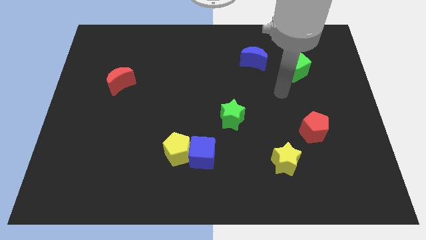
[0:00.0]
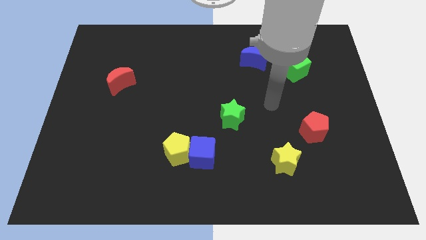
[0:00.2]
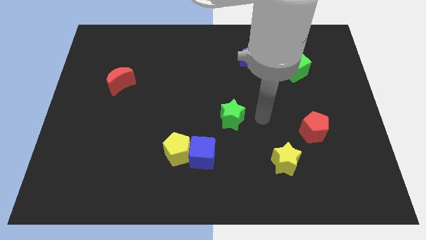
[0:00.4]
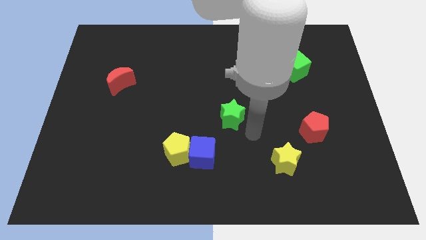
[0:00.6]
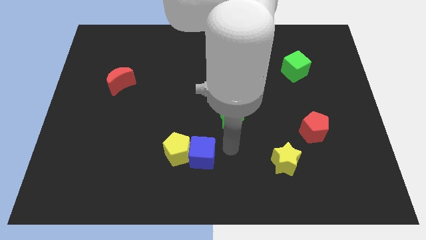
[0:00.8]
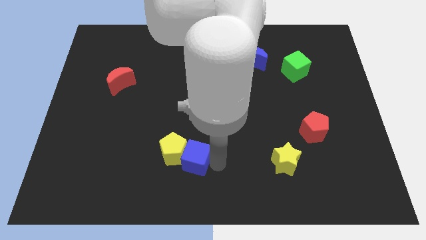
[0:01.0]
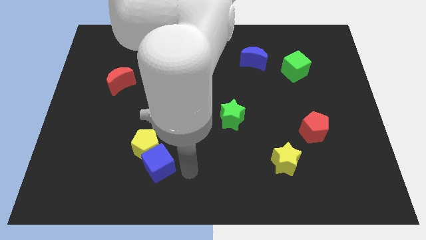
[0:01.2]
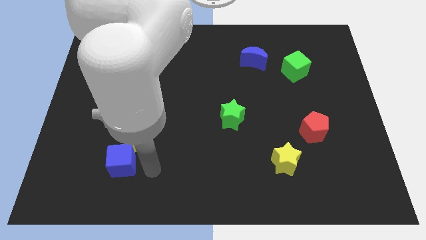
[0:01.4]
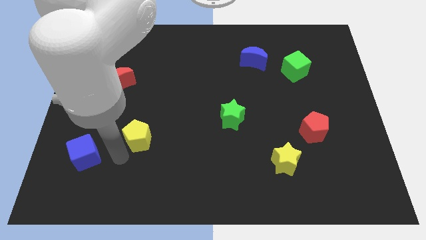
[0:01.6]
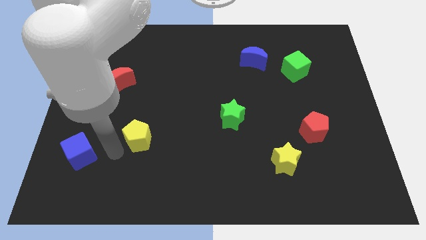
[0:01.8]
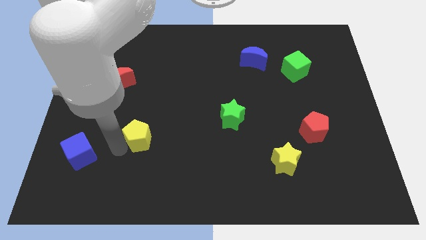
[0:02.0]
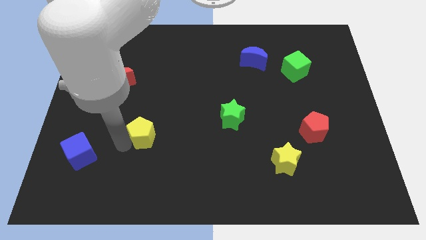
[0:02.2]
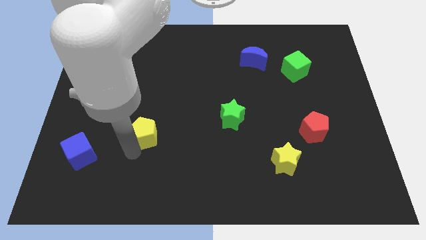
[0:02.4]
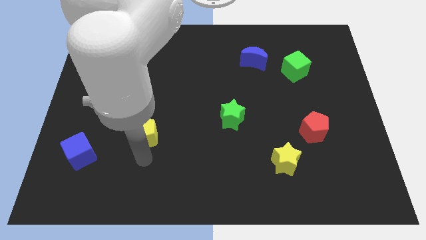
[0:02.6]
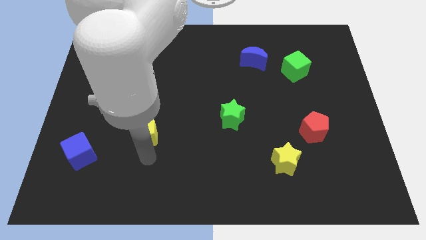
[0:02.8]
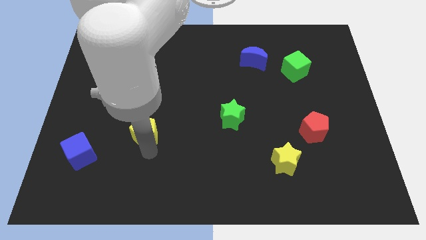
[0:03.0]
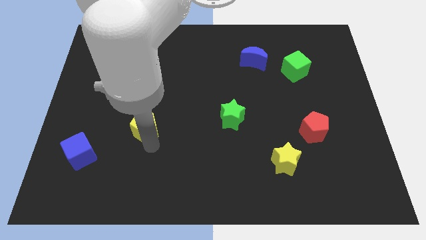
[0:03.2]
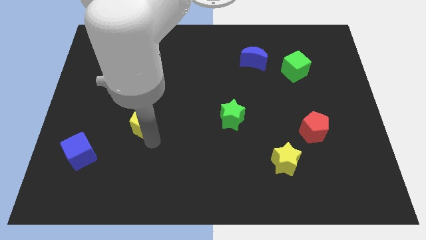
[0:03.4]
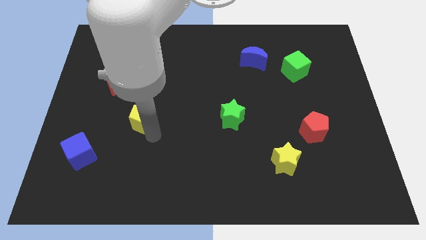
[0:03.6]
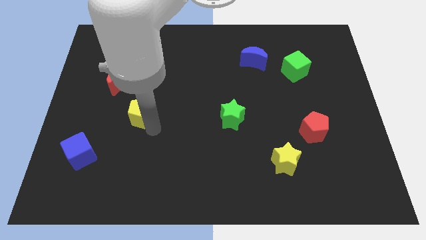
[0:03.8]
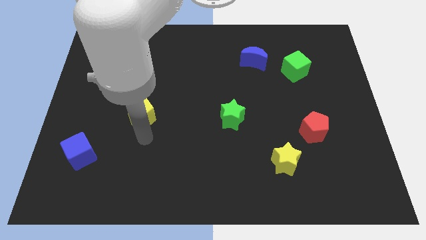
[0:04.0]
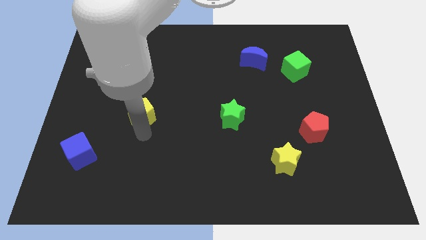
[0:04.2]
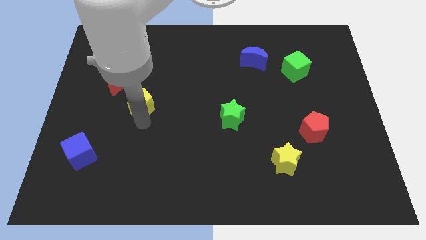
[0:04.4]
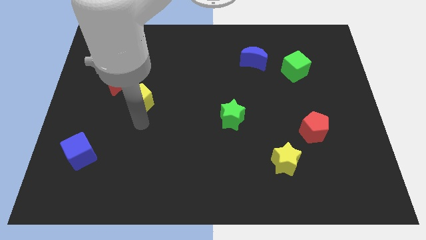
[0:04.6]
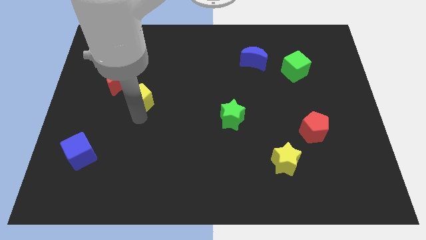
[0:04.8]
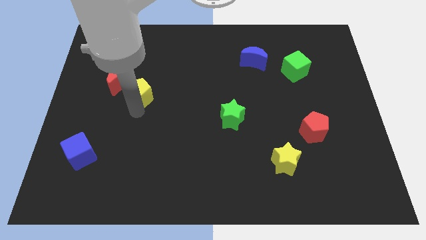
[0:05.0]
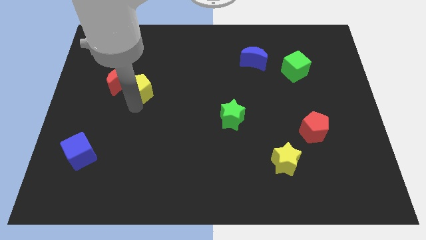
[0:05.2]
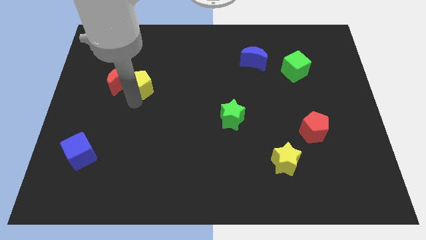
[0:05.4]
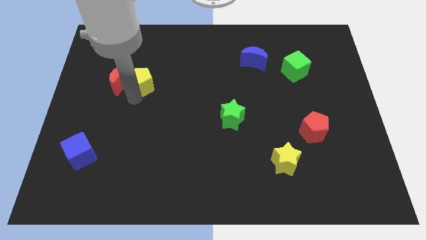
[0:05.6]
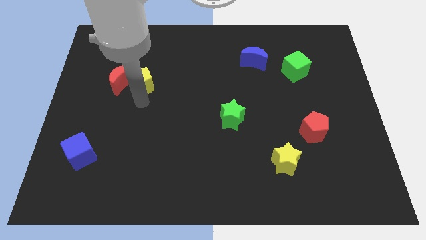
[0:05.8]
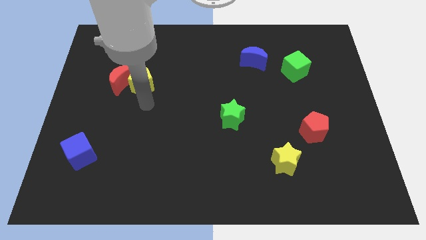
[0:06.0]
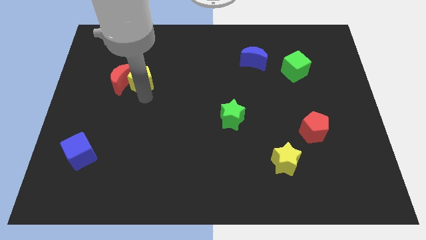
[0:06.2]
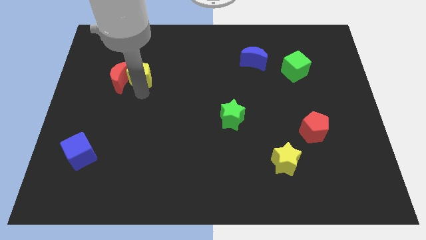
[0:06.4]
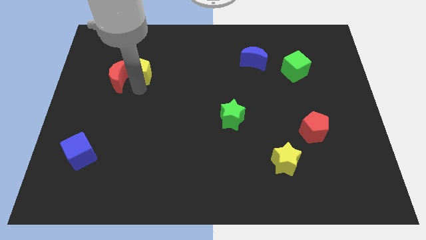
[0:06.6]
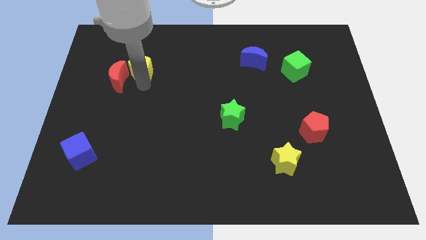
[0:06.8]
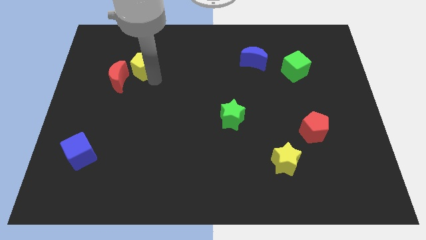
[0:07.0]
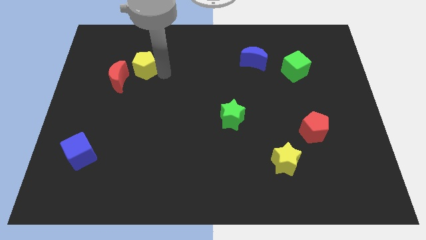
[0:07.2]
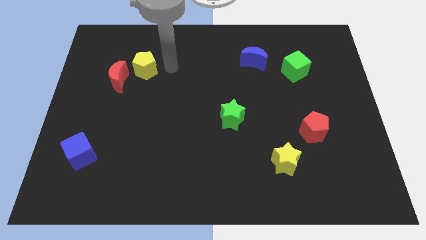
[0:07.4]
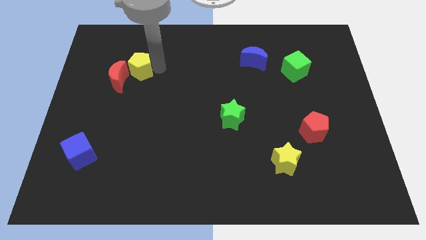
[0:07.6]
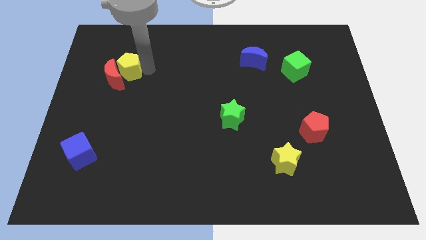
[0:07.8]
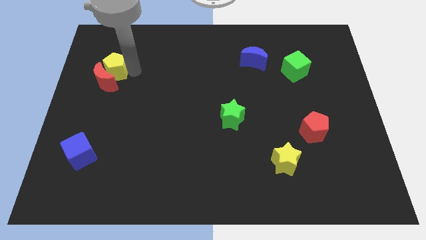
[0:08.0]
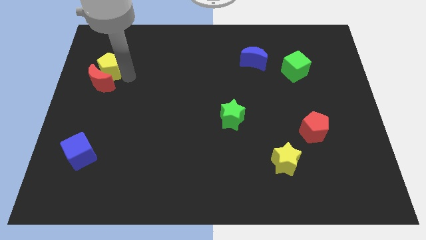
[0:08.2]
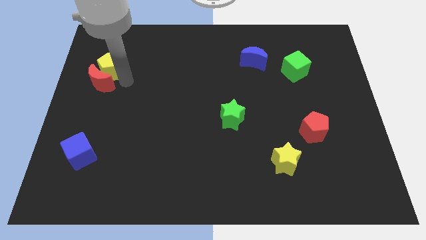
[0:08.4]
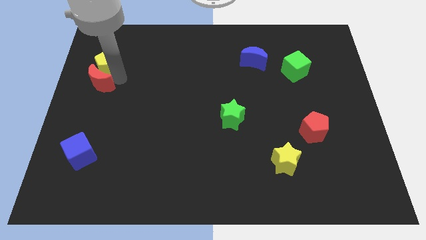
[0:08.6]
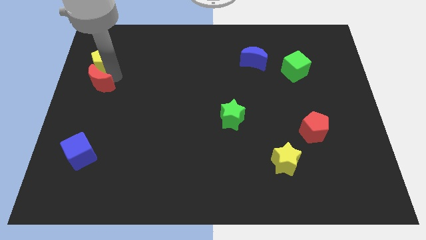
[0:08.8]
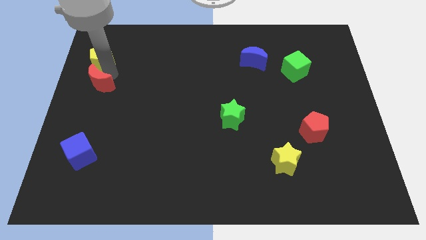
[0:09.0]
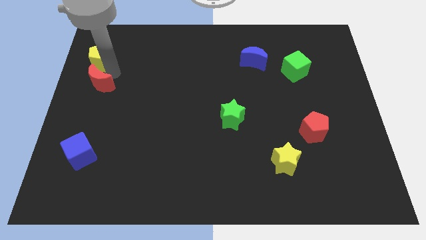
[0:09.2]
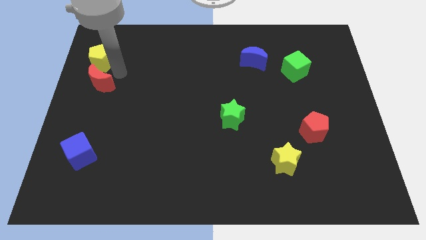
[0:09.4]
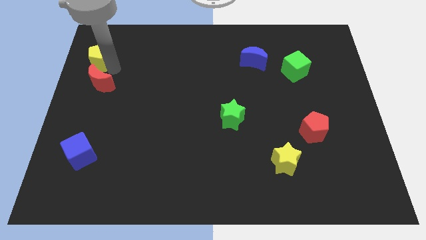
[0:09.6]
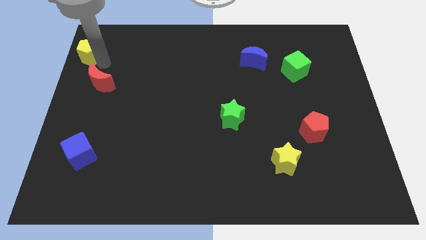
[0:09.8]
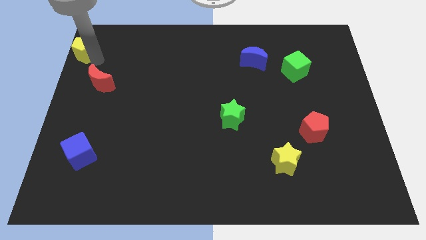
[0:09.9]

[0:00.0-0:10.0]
push the yellow pentagon to the top left corner
